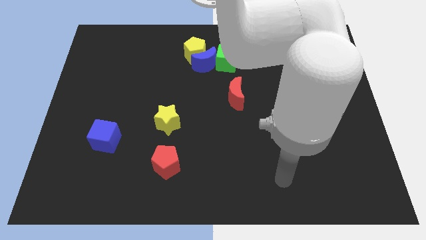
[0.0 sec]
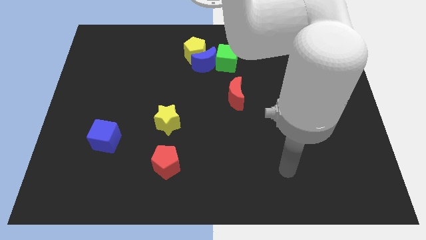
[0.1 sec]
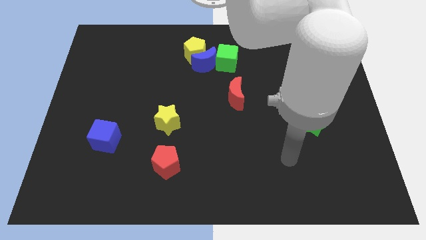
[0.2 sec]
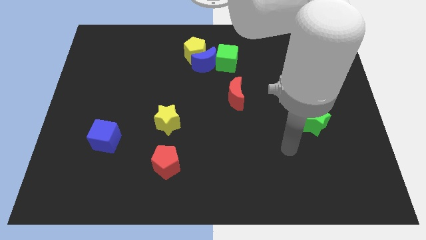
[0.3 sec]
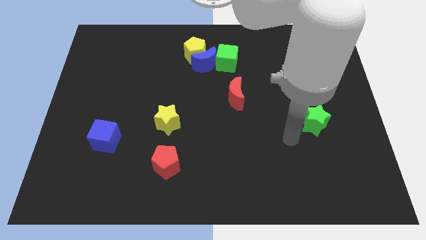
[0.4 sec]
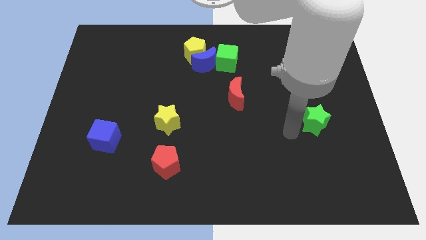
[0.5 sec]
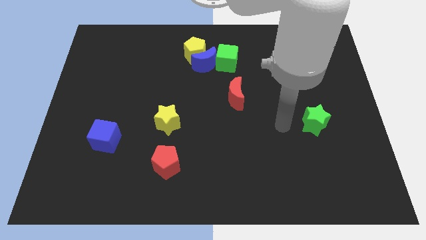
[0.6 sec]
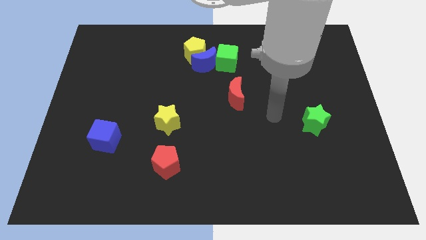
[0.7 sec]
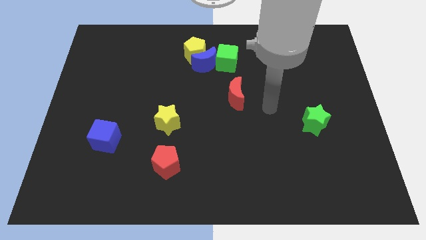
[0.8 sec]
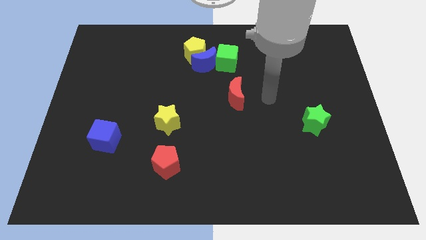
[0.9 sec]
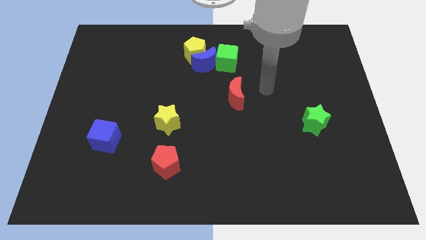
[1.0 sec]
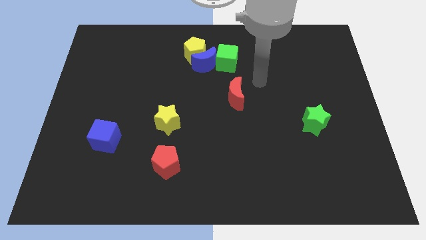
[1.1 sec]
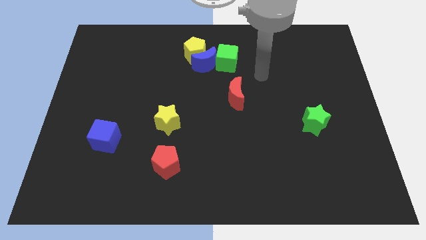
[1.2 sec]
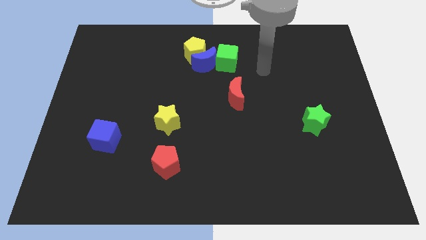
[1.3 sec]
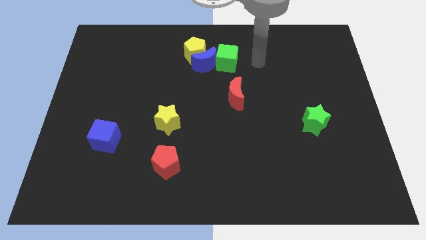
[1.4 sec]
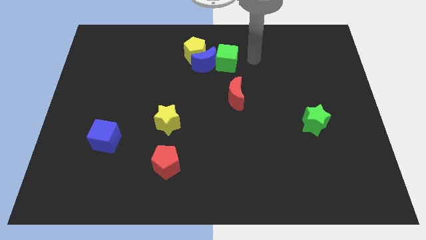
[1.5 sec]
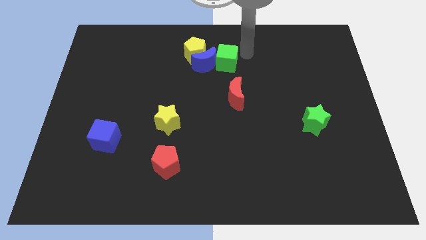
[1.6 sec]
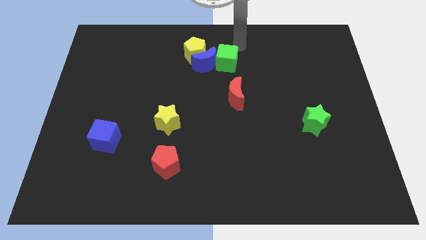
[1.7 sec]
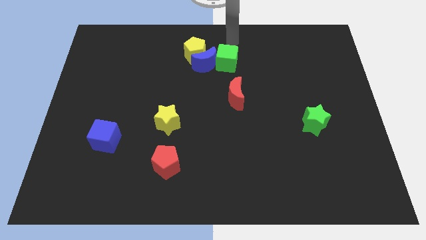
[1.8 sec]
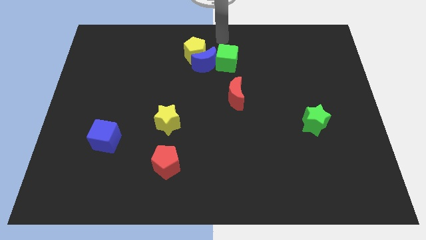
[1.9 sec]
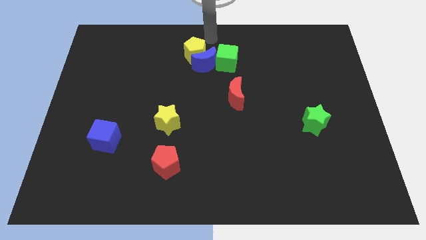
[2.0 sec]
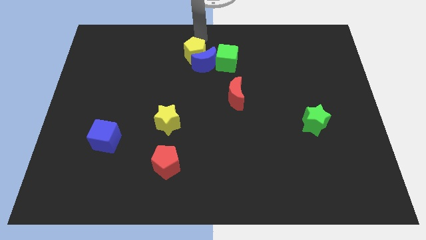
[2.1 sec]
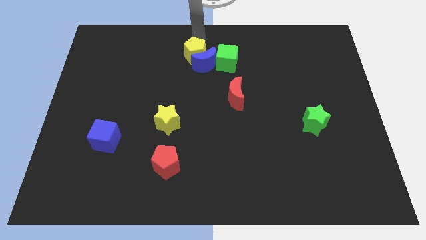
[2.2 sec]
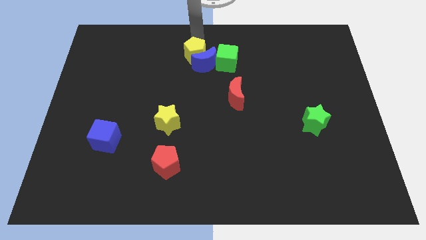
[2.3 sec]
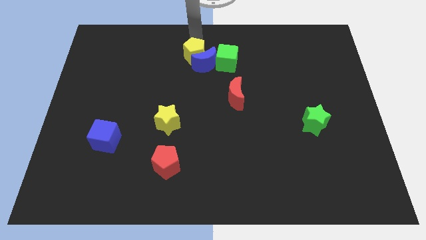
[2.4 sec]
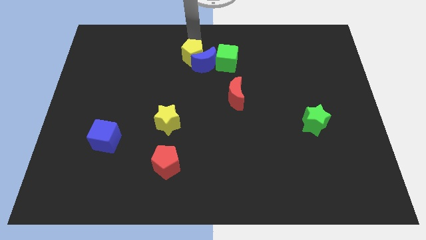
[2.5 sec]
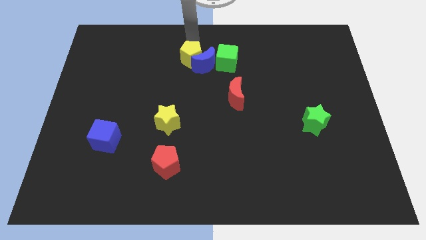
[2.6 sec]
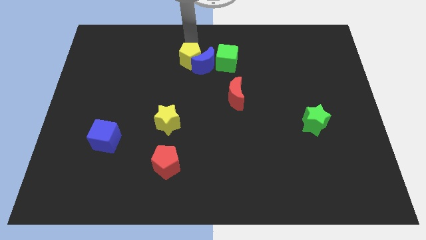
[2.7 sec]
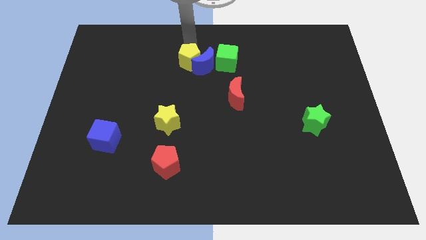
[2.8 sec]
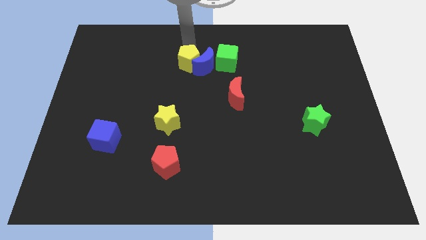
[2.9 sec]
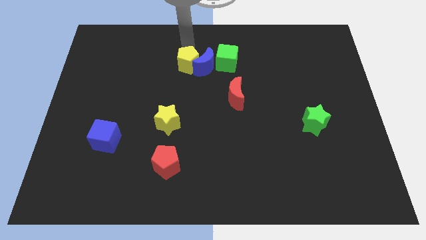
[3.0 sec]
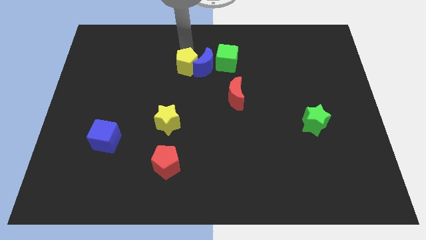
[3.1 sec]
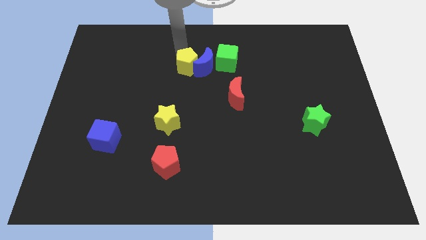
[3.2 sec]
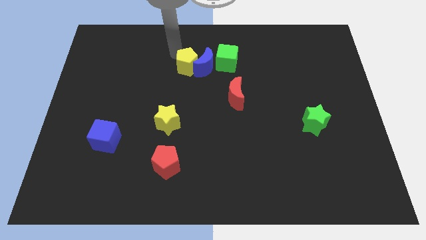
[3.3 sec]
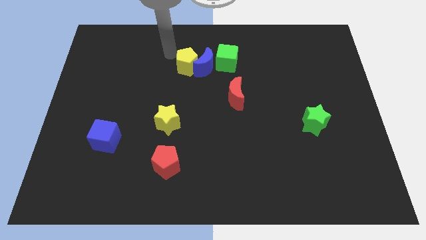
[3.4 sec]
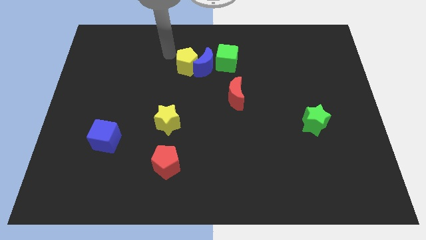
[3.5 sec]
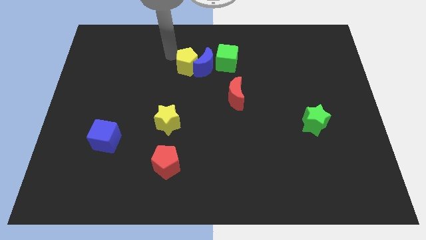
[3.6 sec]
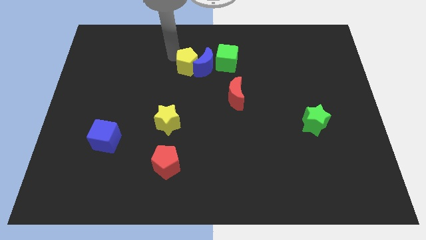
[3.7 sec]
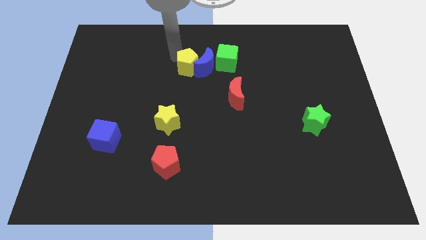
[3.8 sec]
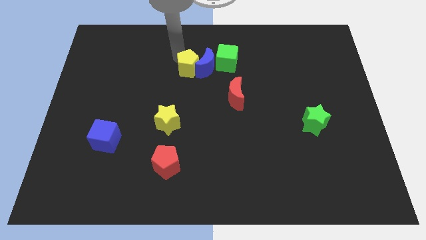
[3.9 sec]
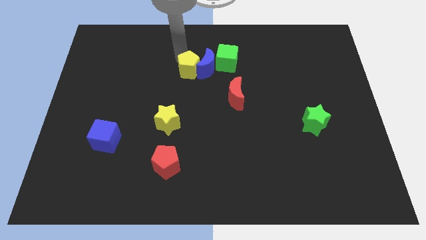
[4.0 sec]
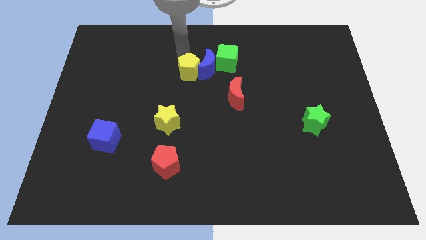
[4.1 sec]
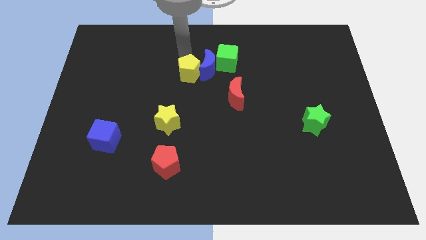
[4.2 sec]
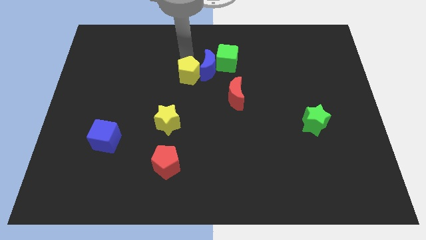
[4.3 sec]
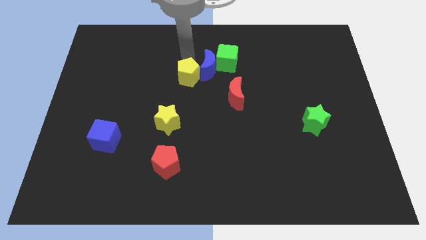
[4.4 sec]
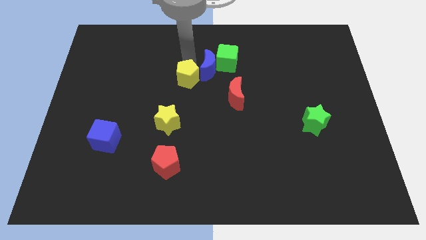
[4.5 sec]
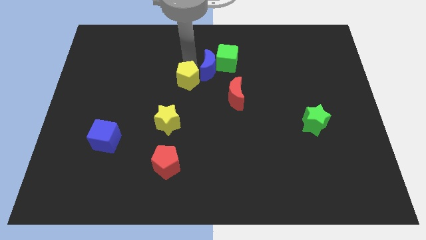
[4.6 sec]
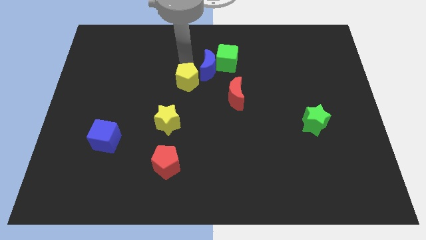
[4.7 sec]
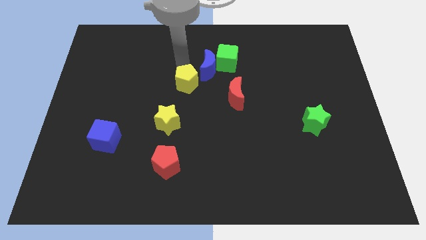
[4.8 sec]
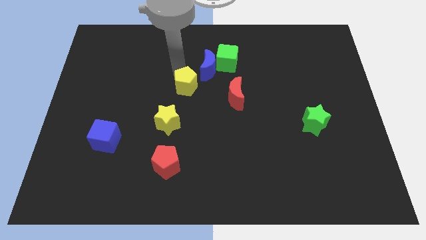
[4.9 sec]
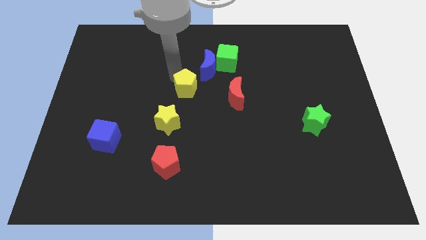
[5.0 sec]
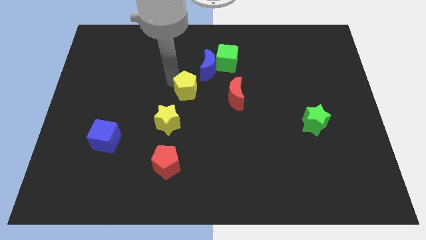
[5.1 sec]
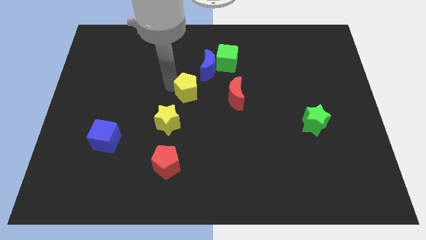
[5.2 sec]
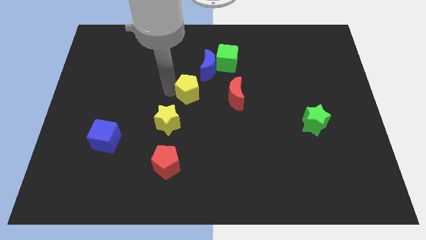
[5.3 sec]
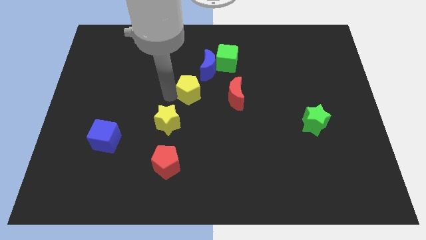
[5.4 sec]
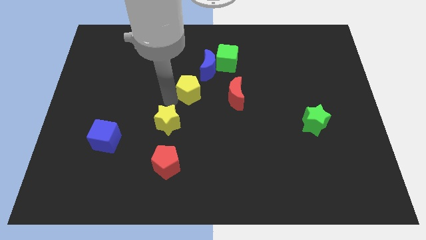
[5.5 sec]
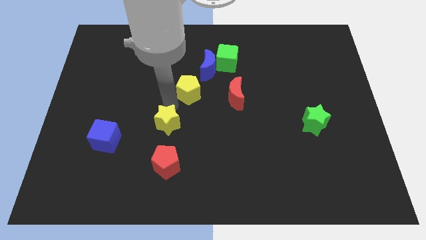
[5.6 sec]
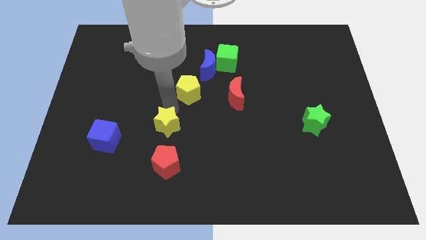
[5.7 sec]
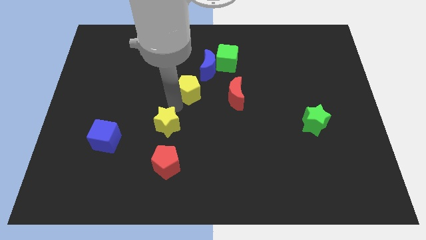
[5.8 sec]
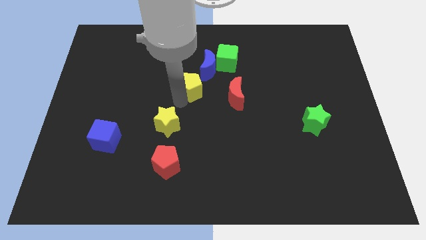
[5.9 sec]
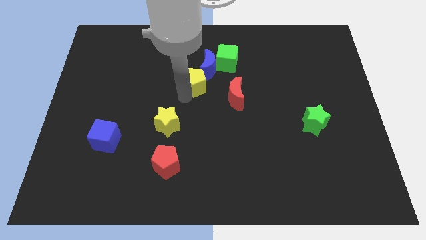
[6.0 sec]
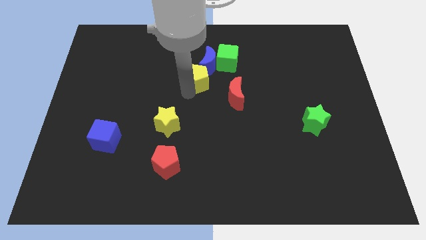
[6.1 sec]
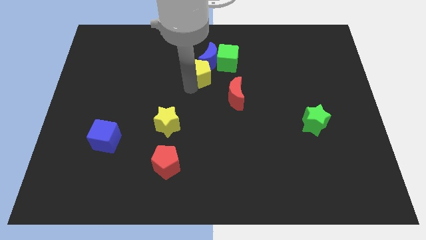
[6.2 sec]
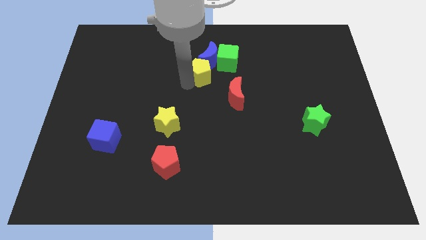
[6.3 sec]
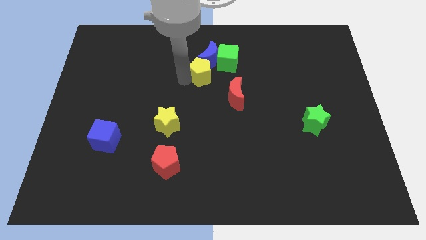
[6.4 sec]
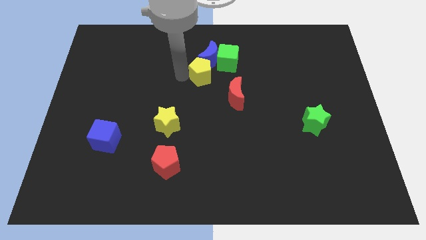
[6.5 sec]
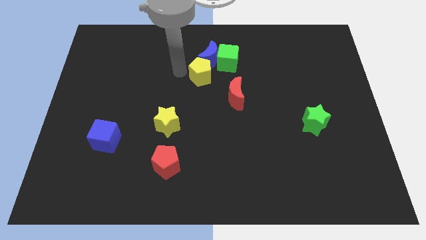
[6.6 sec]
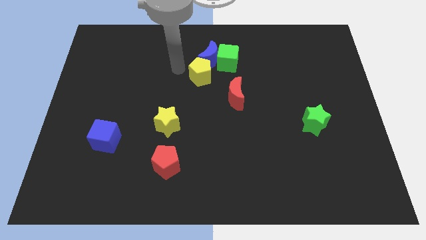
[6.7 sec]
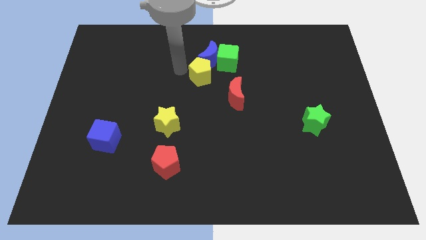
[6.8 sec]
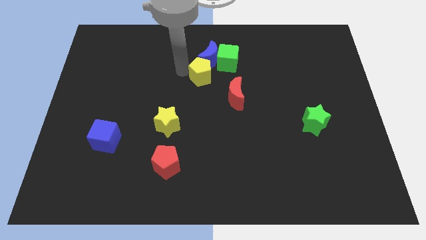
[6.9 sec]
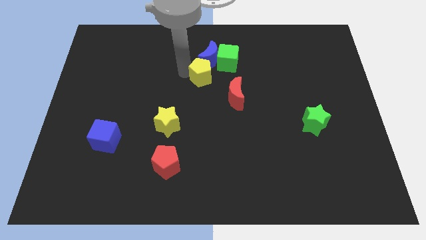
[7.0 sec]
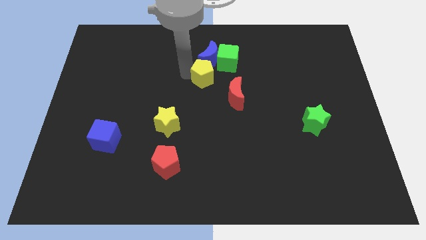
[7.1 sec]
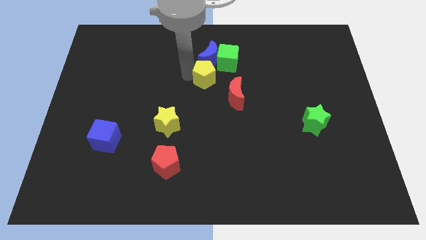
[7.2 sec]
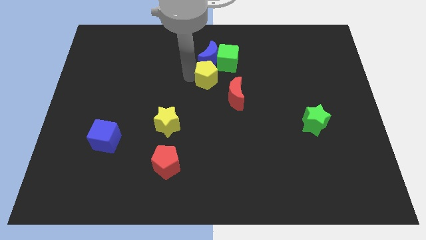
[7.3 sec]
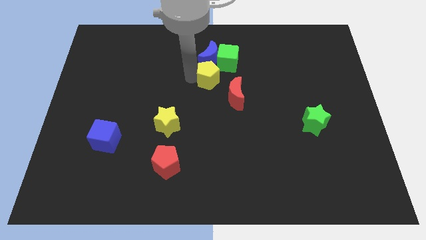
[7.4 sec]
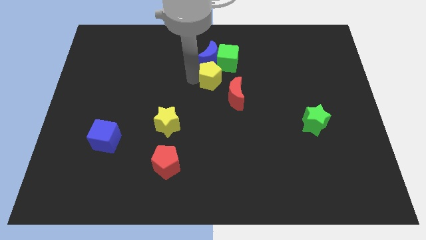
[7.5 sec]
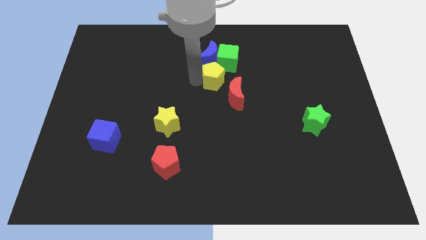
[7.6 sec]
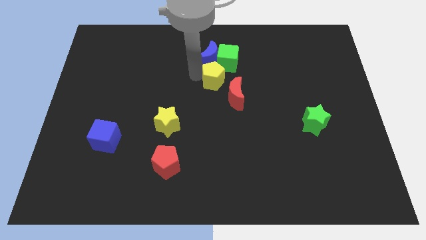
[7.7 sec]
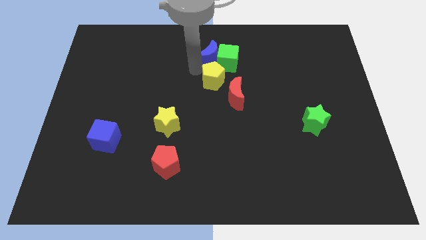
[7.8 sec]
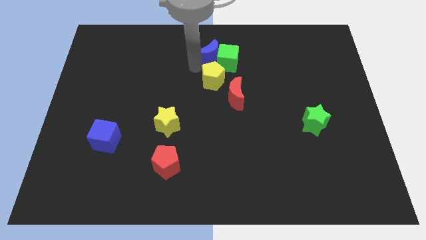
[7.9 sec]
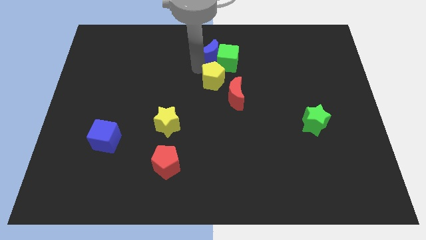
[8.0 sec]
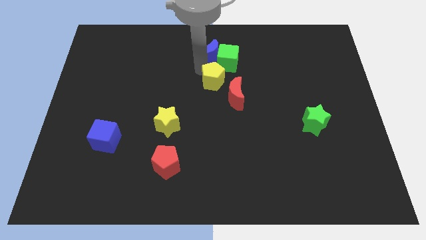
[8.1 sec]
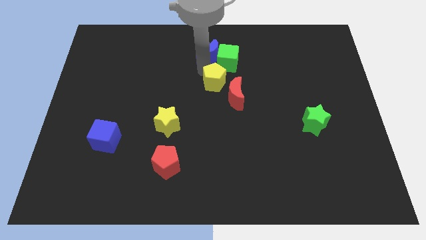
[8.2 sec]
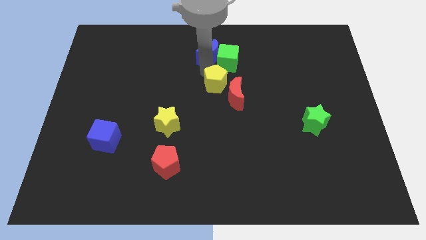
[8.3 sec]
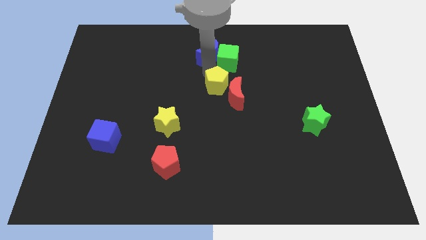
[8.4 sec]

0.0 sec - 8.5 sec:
push the yellow pentagon next to the red moon
